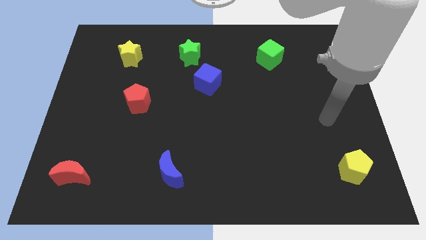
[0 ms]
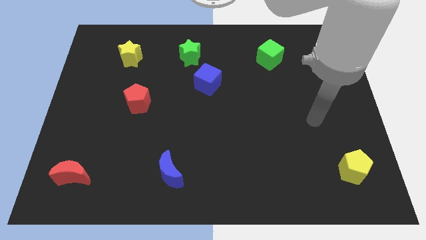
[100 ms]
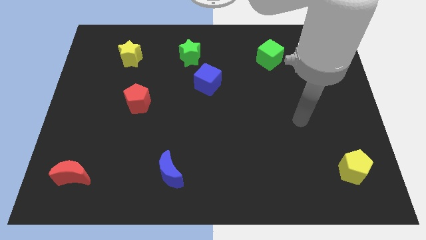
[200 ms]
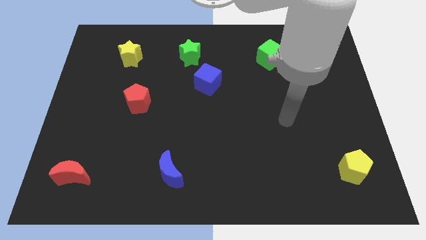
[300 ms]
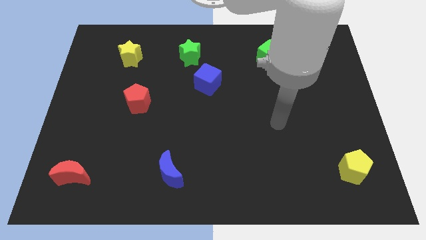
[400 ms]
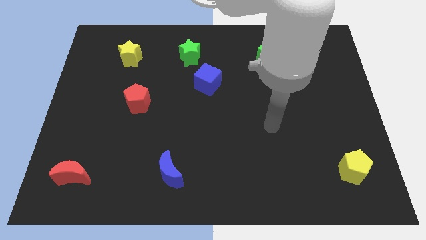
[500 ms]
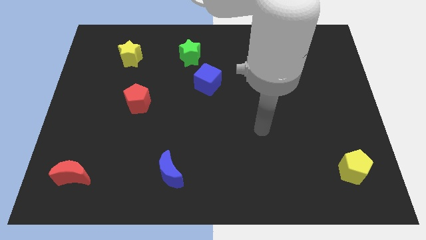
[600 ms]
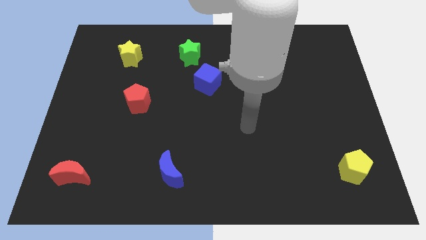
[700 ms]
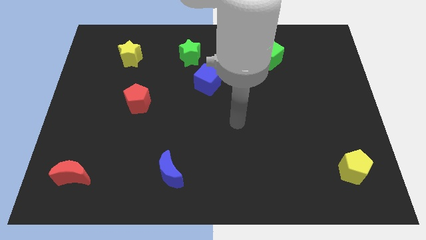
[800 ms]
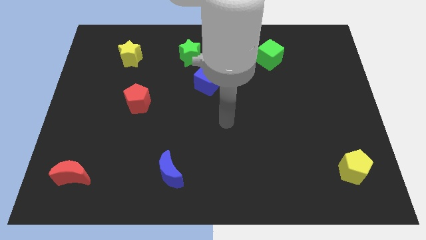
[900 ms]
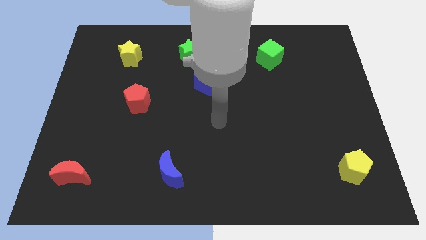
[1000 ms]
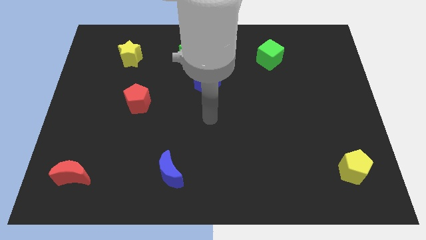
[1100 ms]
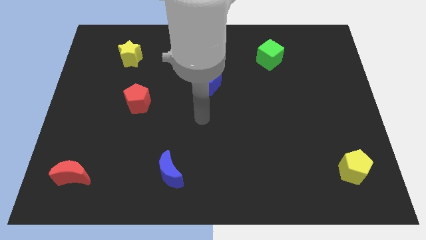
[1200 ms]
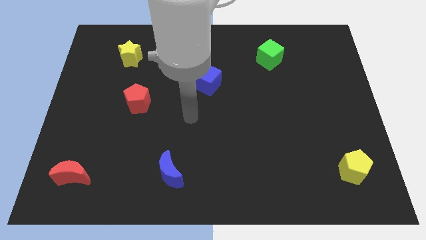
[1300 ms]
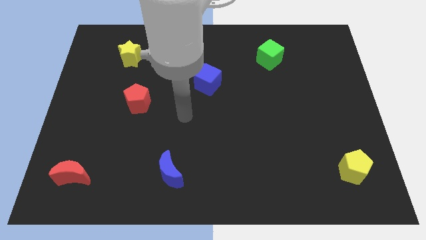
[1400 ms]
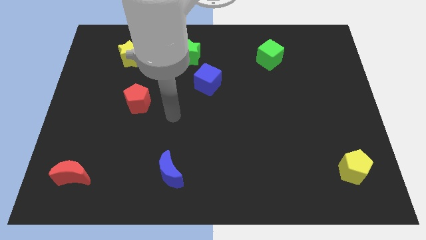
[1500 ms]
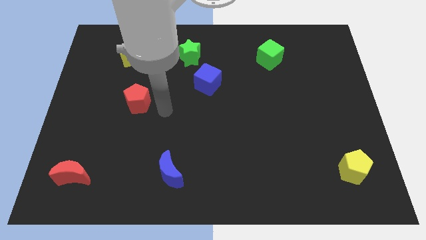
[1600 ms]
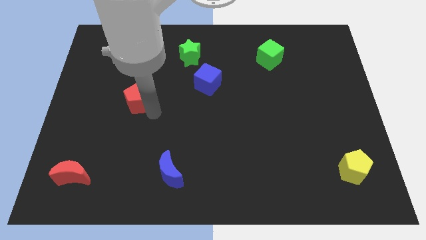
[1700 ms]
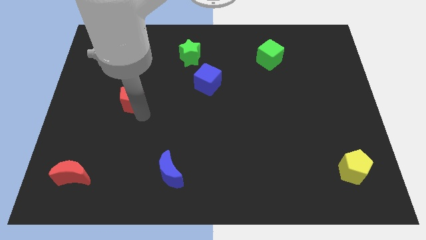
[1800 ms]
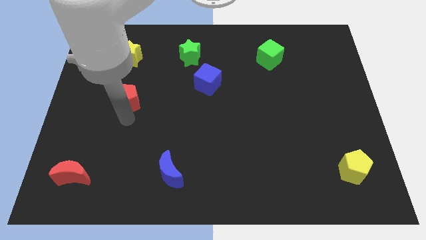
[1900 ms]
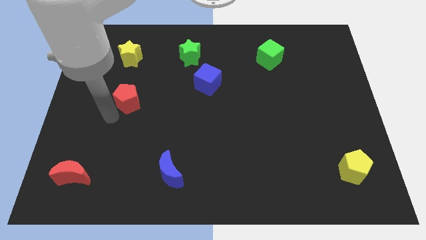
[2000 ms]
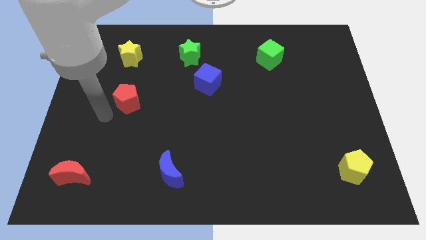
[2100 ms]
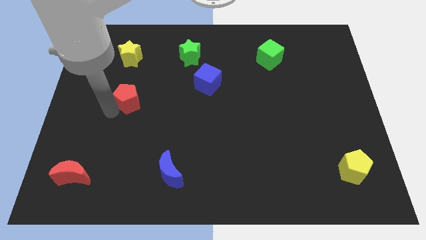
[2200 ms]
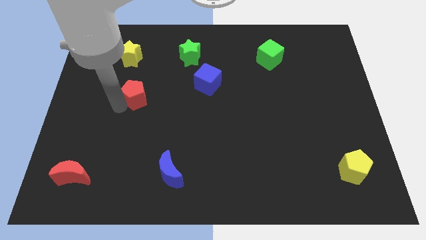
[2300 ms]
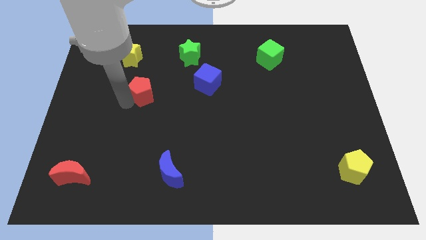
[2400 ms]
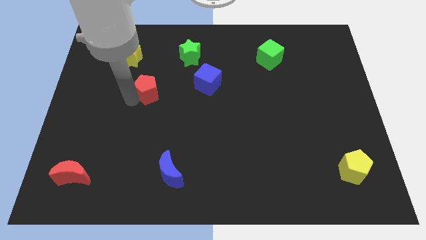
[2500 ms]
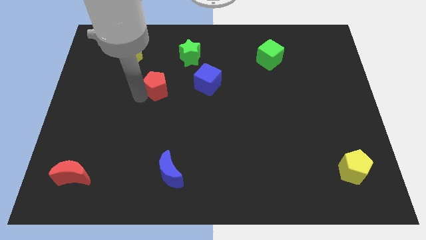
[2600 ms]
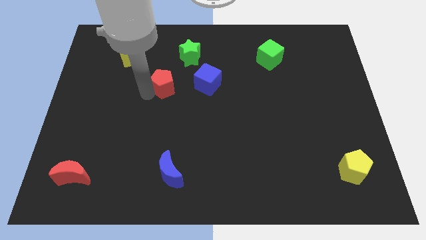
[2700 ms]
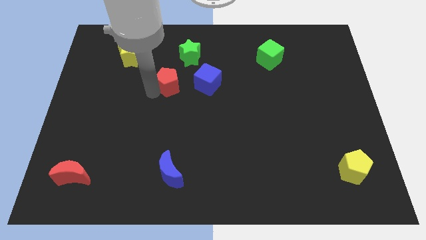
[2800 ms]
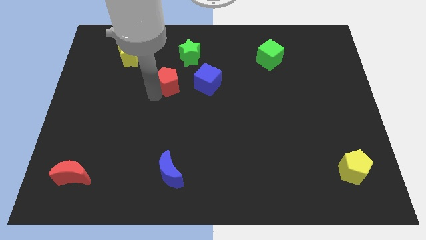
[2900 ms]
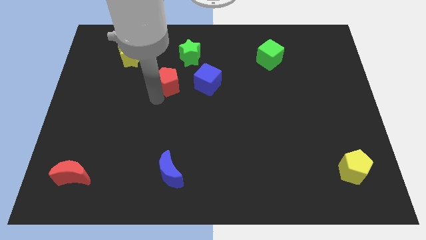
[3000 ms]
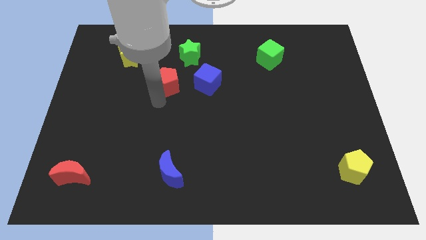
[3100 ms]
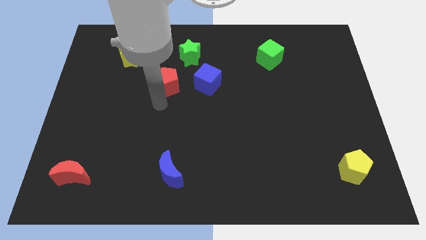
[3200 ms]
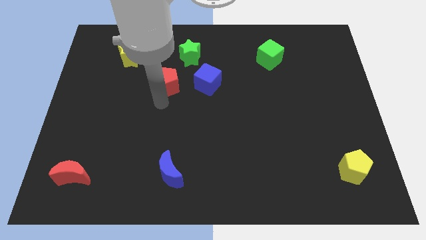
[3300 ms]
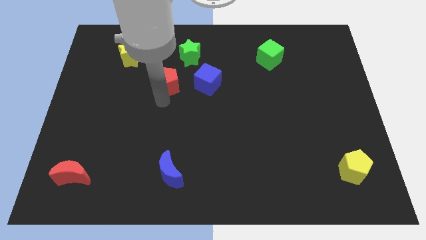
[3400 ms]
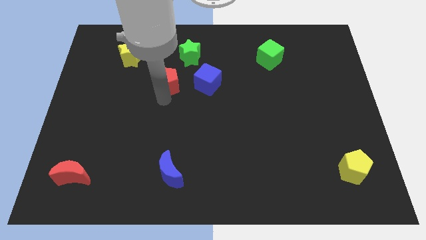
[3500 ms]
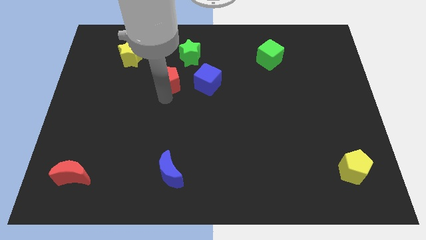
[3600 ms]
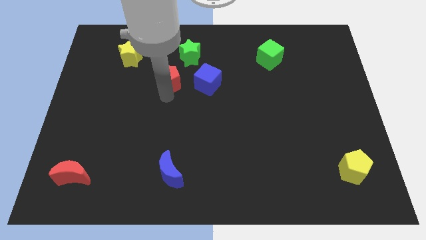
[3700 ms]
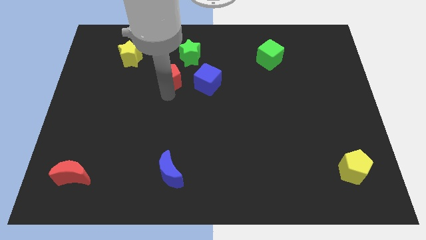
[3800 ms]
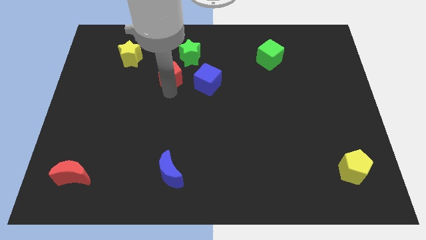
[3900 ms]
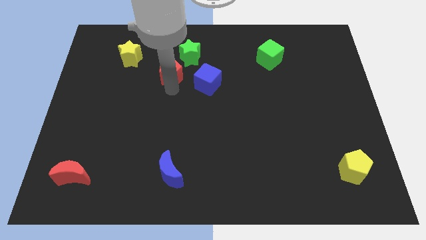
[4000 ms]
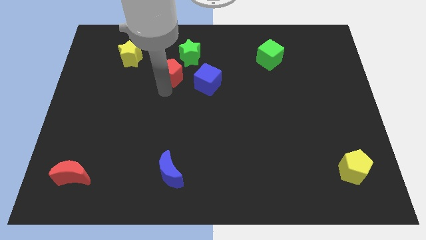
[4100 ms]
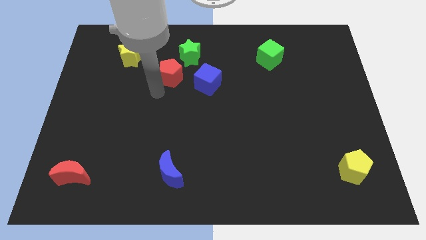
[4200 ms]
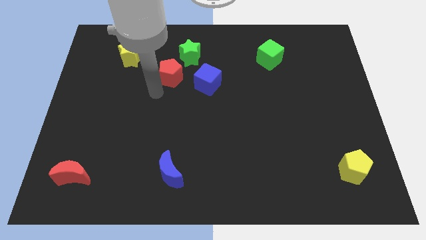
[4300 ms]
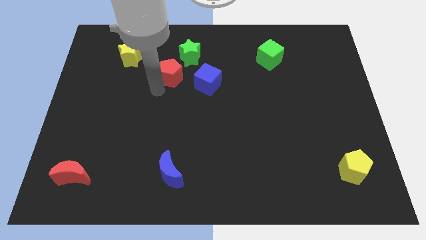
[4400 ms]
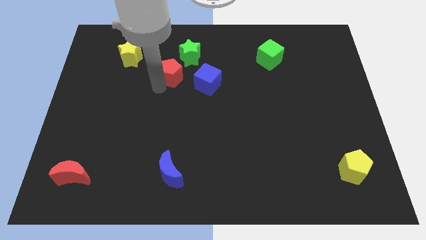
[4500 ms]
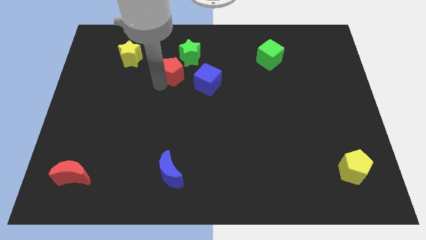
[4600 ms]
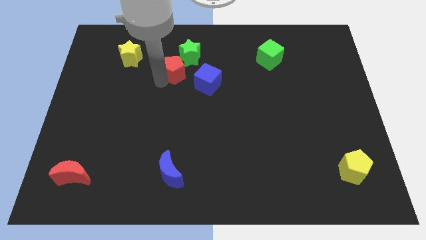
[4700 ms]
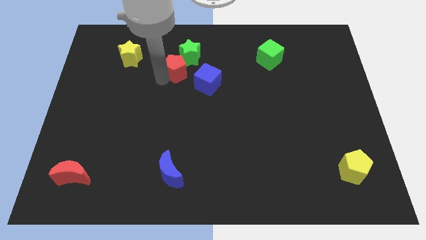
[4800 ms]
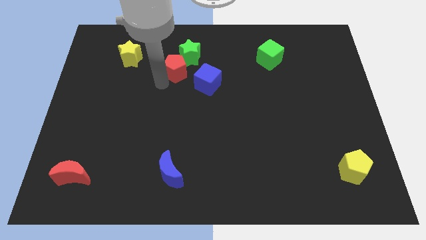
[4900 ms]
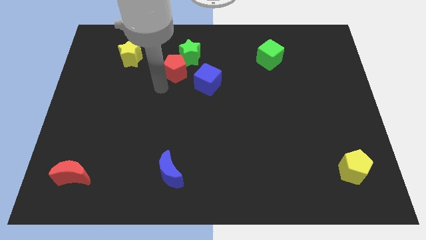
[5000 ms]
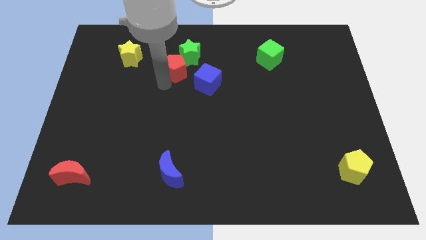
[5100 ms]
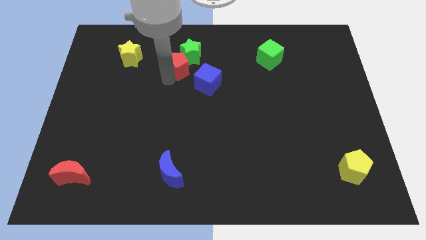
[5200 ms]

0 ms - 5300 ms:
slide the red pentagon next to the green star

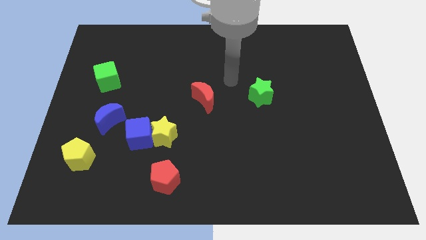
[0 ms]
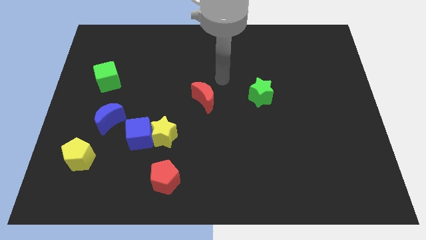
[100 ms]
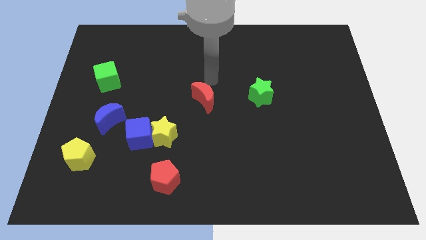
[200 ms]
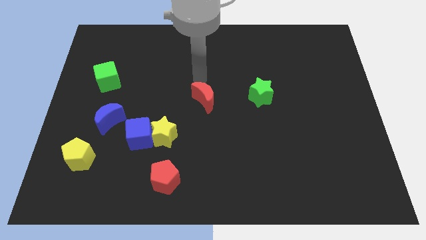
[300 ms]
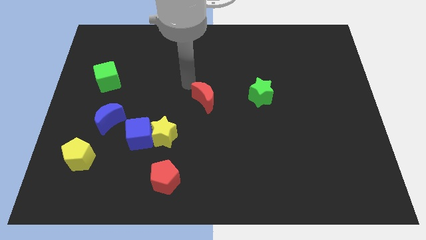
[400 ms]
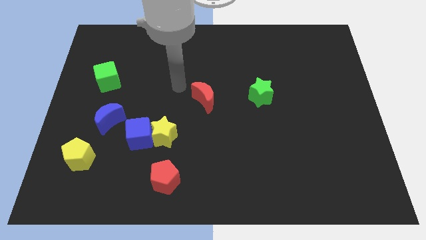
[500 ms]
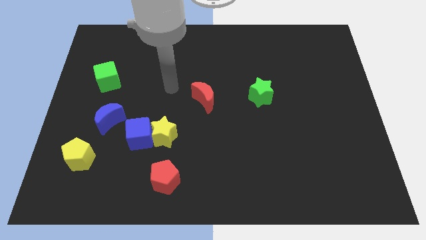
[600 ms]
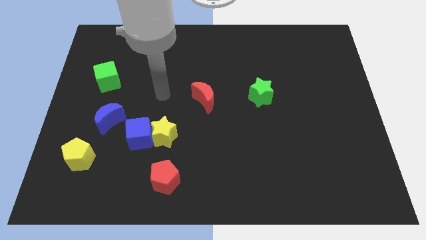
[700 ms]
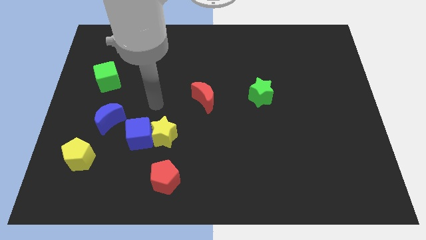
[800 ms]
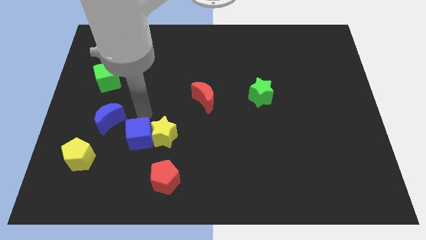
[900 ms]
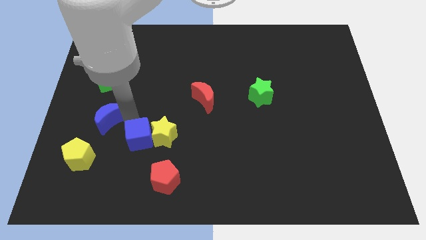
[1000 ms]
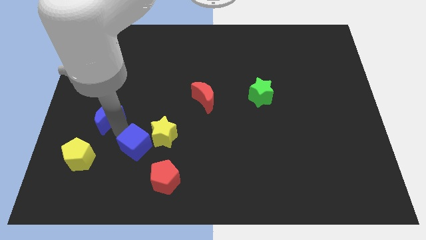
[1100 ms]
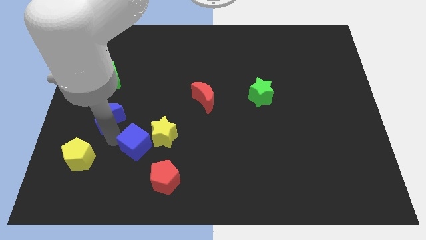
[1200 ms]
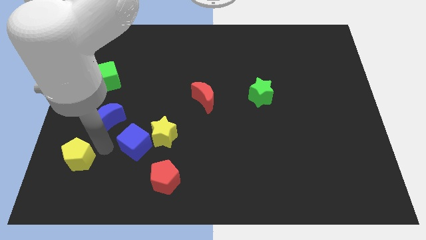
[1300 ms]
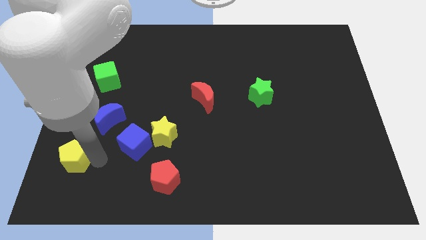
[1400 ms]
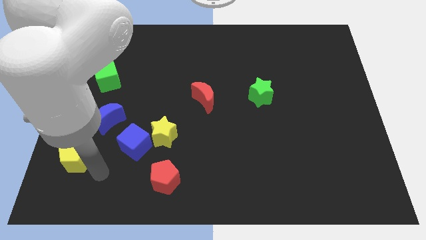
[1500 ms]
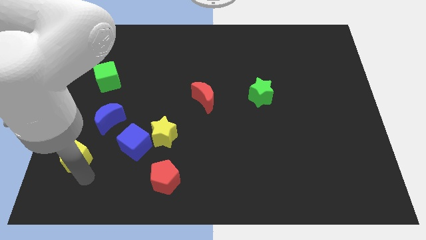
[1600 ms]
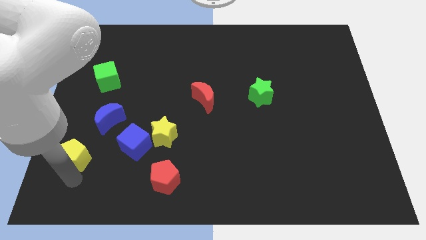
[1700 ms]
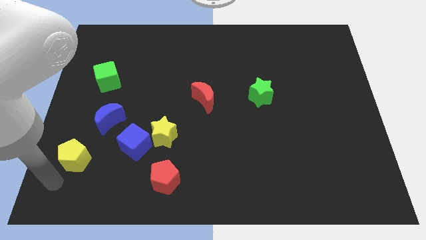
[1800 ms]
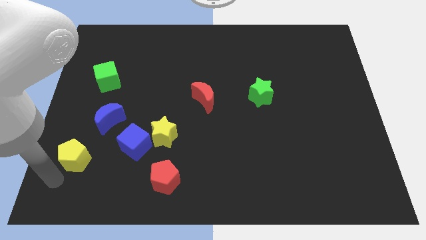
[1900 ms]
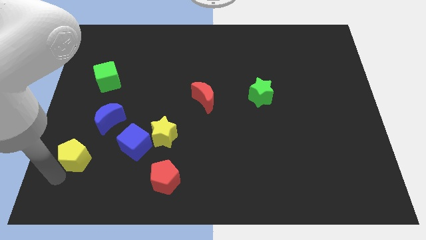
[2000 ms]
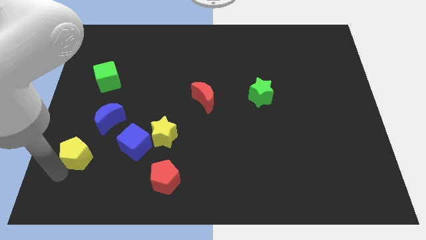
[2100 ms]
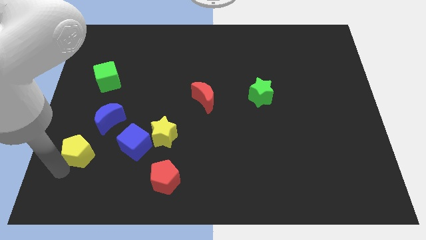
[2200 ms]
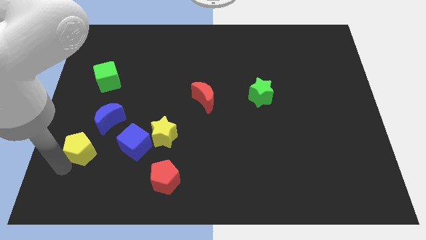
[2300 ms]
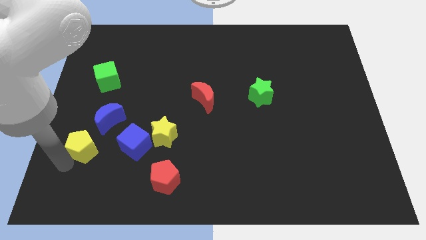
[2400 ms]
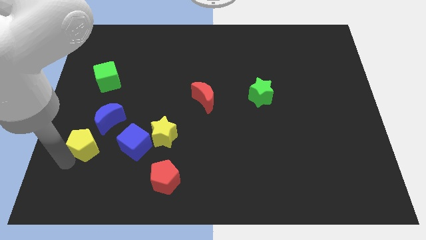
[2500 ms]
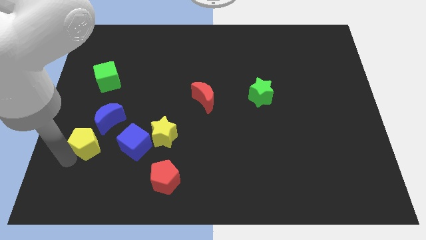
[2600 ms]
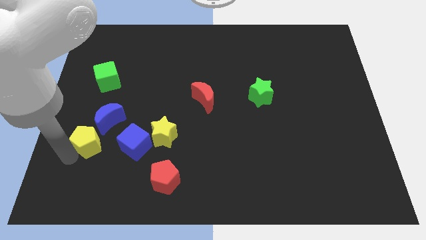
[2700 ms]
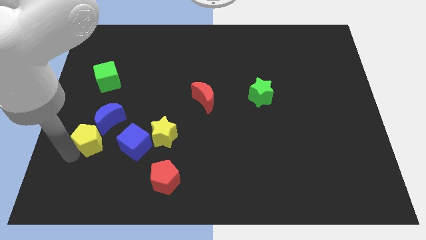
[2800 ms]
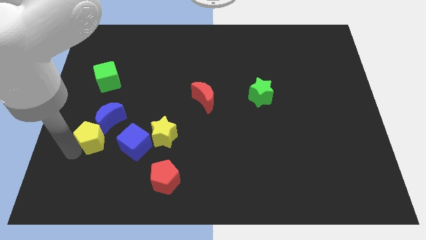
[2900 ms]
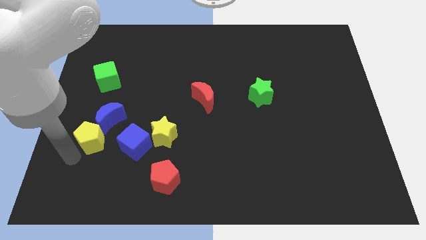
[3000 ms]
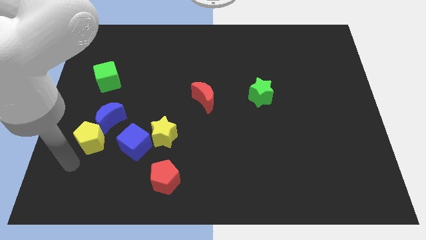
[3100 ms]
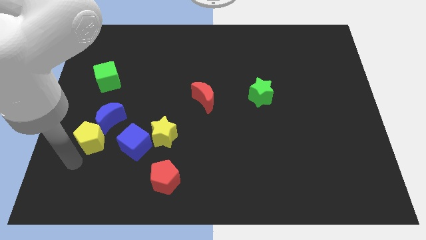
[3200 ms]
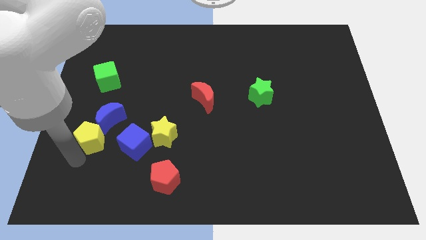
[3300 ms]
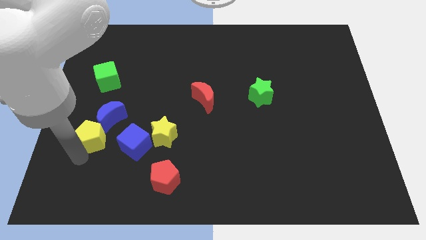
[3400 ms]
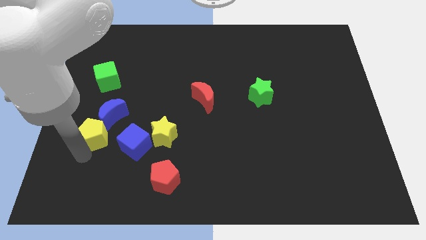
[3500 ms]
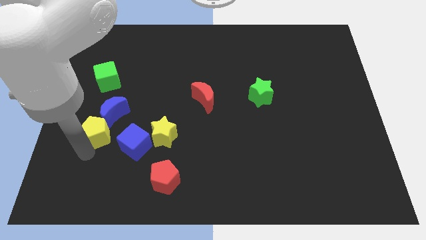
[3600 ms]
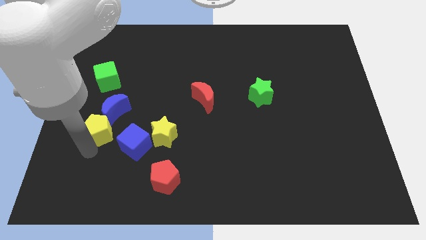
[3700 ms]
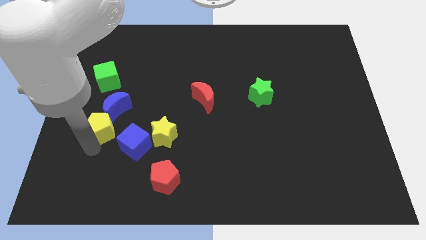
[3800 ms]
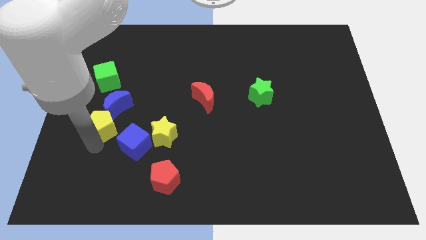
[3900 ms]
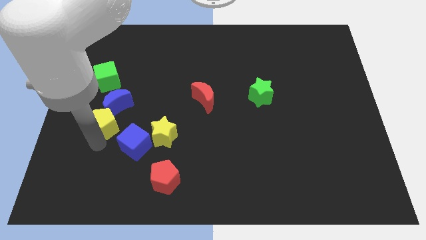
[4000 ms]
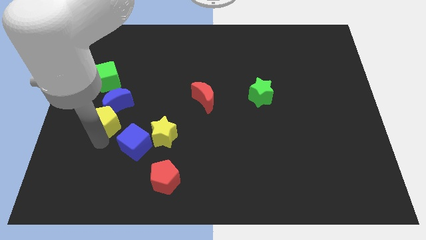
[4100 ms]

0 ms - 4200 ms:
move the yellow pentagon close to the blue moon
